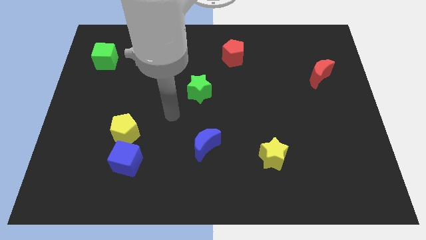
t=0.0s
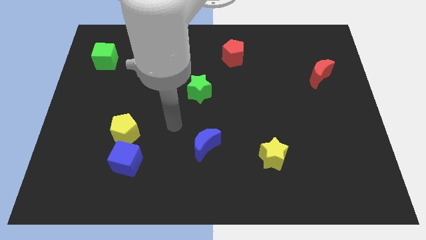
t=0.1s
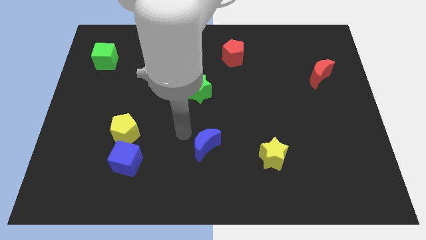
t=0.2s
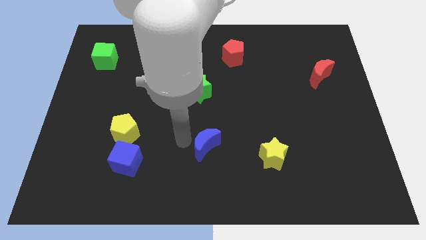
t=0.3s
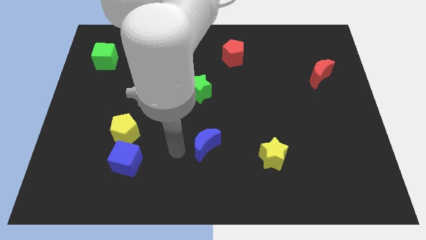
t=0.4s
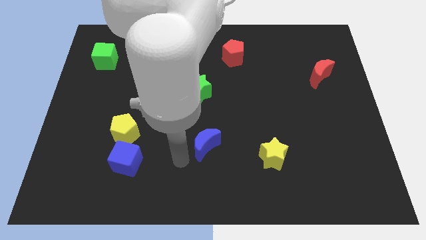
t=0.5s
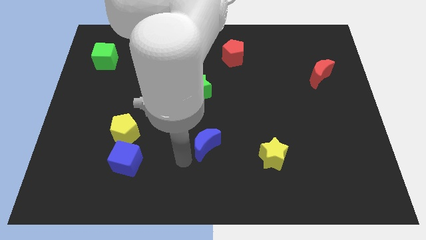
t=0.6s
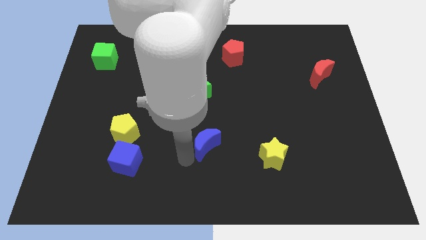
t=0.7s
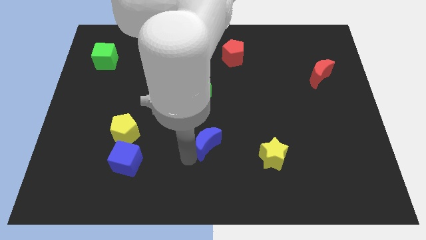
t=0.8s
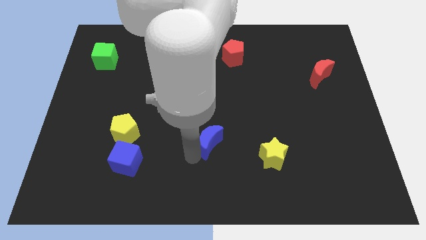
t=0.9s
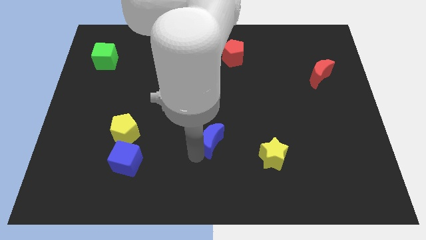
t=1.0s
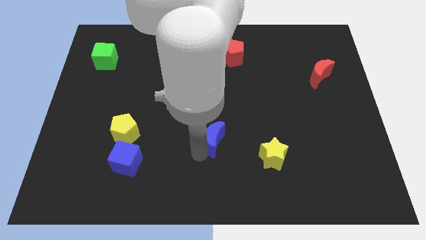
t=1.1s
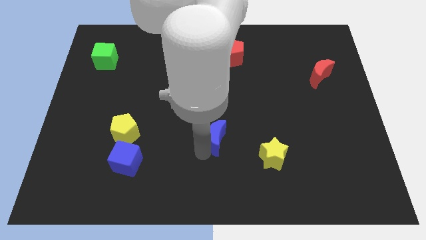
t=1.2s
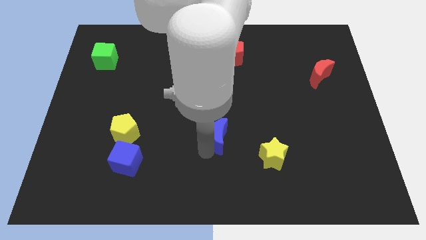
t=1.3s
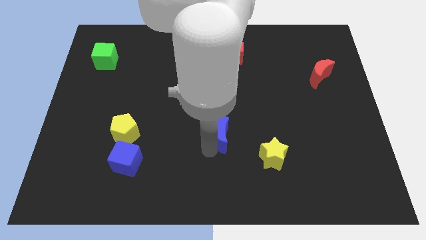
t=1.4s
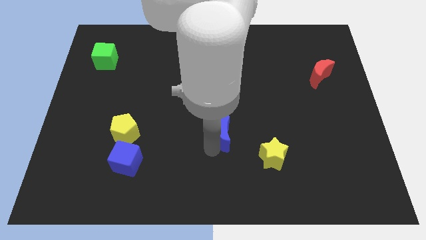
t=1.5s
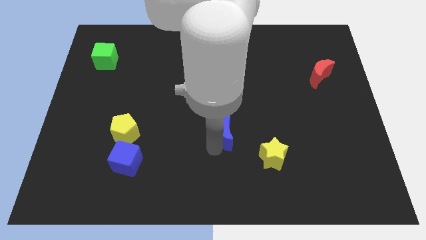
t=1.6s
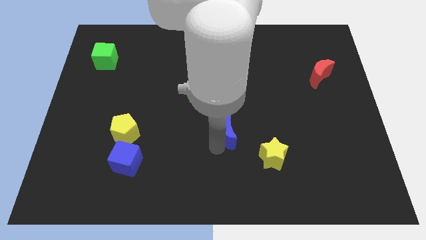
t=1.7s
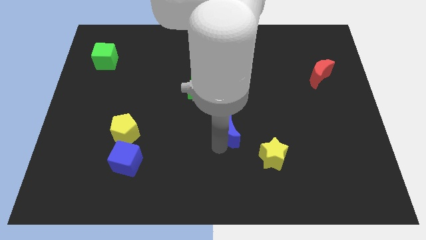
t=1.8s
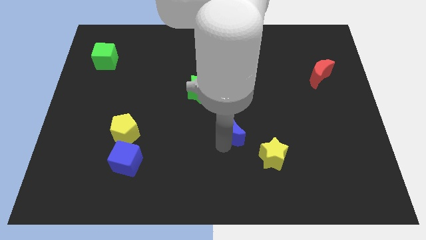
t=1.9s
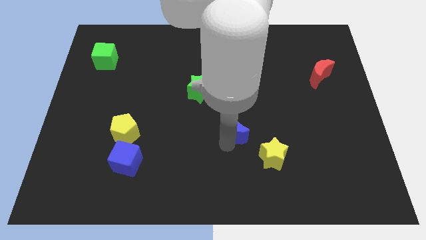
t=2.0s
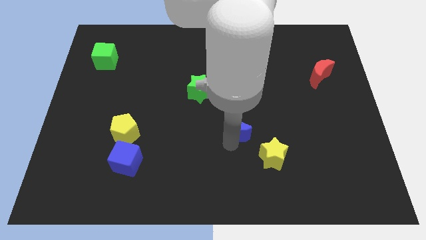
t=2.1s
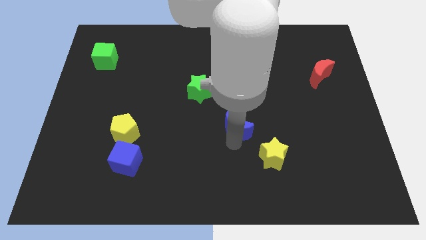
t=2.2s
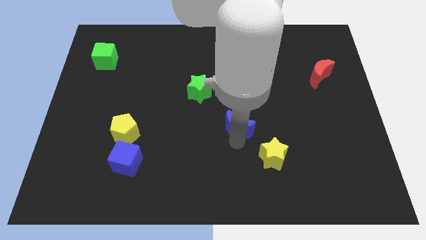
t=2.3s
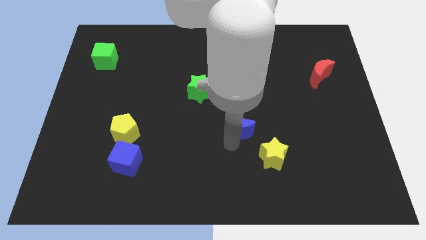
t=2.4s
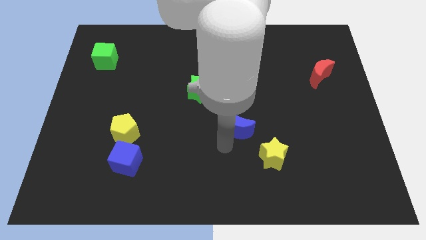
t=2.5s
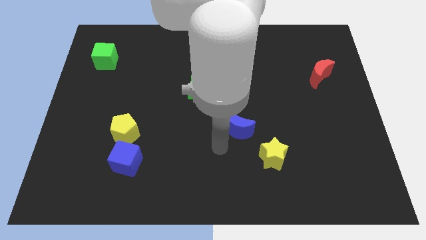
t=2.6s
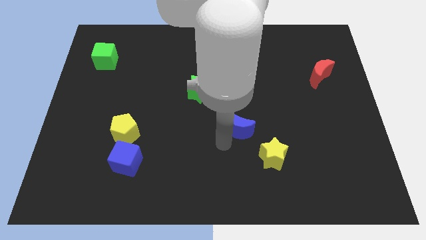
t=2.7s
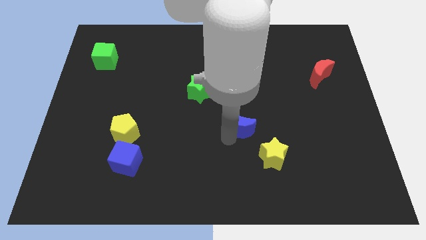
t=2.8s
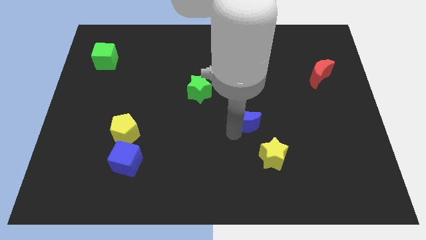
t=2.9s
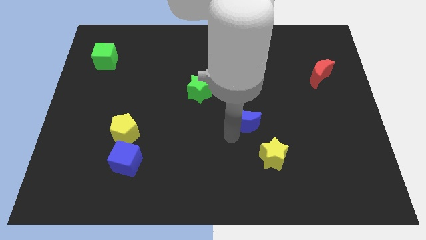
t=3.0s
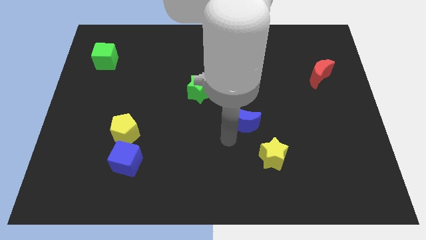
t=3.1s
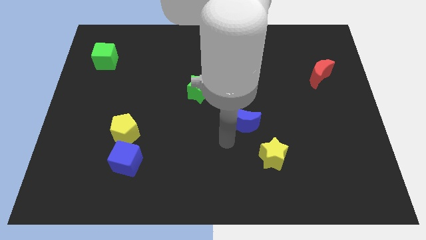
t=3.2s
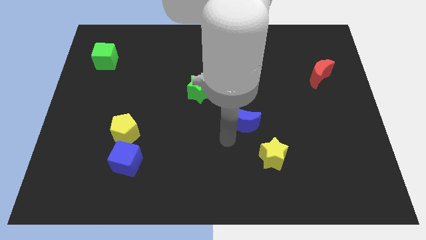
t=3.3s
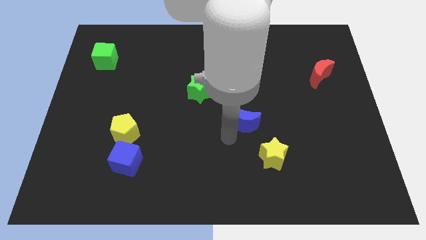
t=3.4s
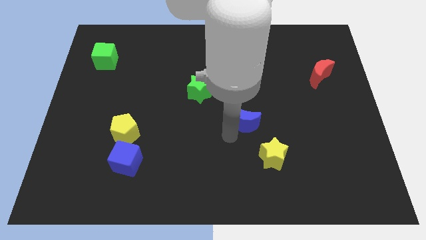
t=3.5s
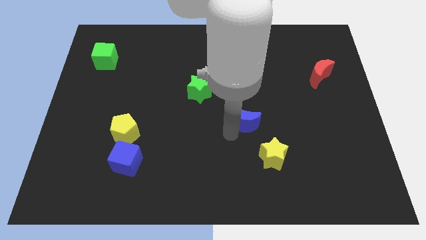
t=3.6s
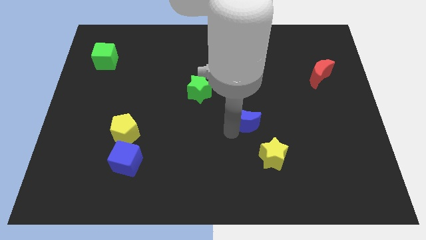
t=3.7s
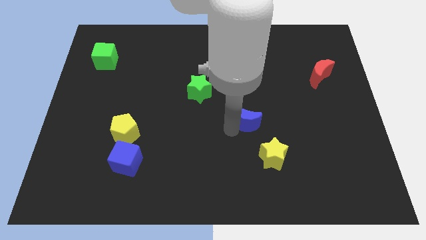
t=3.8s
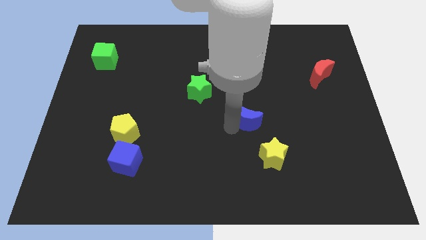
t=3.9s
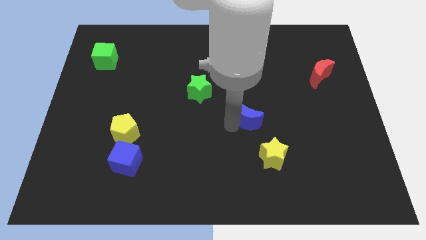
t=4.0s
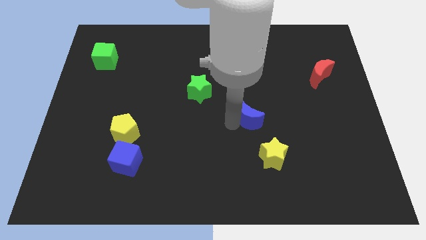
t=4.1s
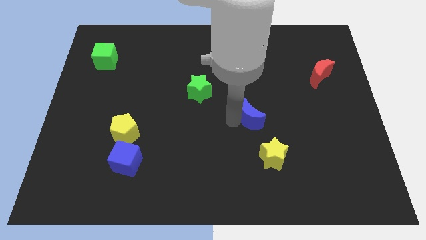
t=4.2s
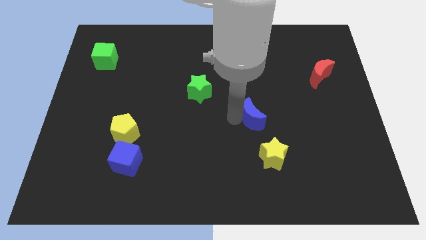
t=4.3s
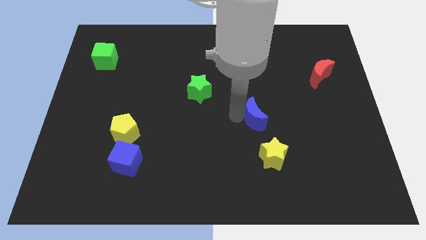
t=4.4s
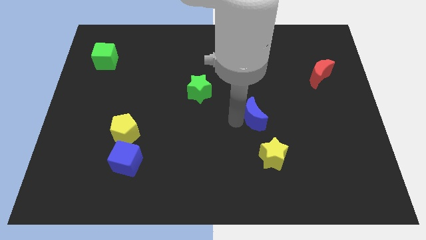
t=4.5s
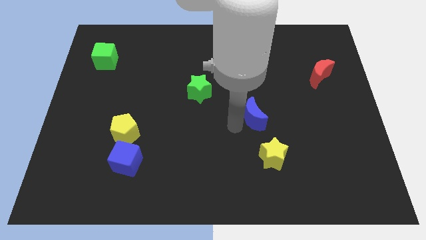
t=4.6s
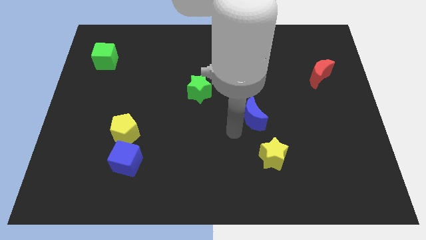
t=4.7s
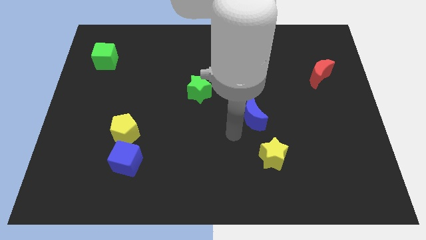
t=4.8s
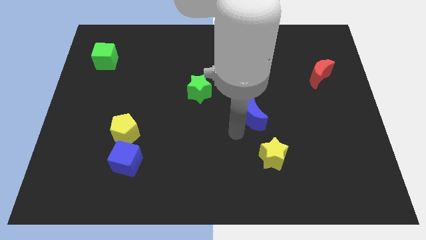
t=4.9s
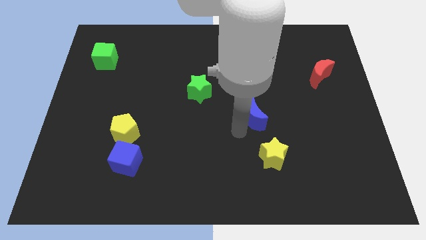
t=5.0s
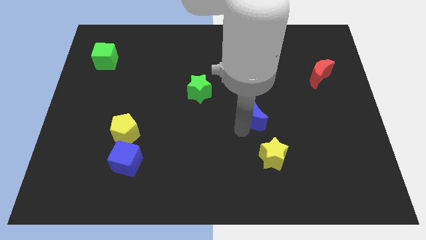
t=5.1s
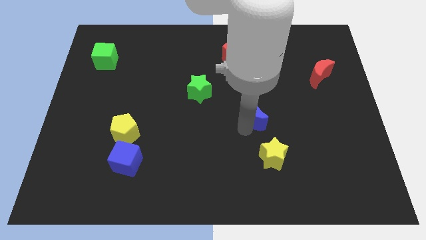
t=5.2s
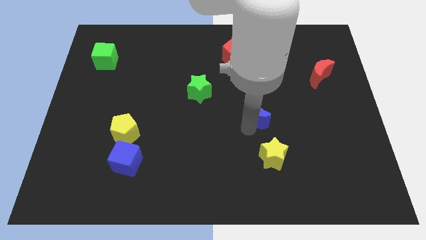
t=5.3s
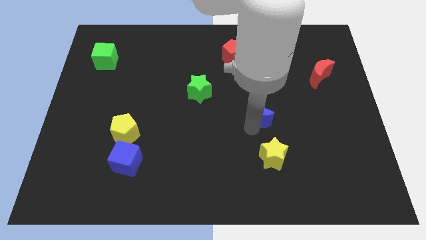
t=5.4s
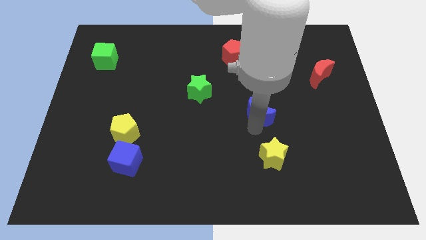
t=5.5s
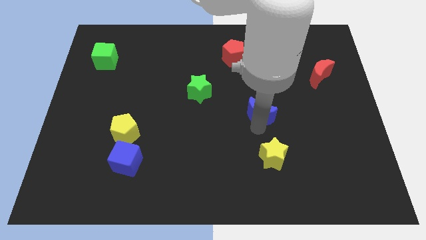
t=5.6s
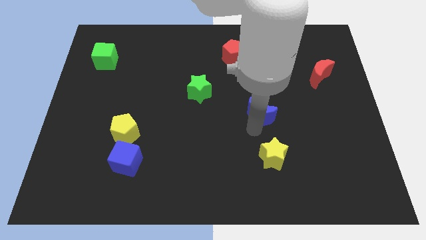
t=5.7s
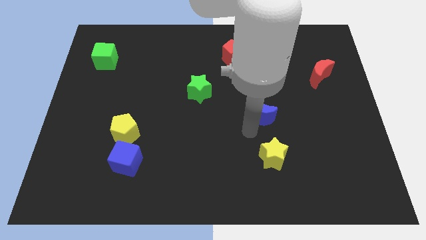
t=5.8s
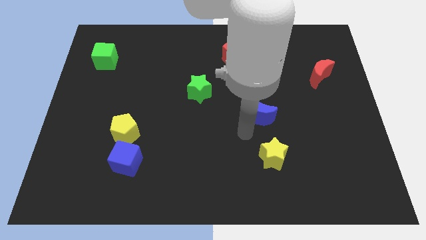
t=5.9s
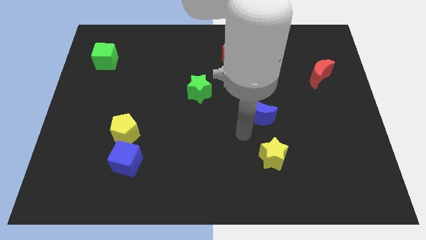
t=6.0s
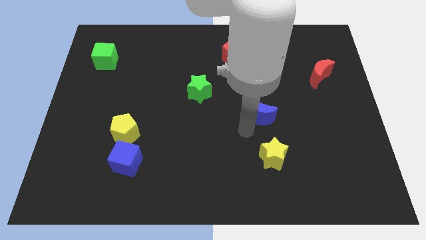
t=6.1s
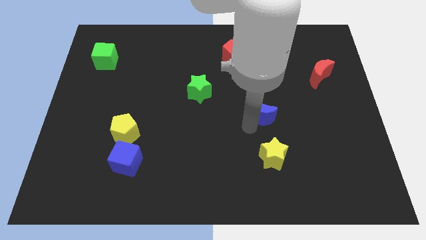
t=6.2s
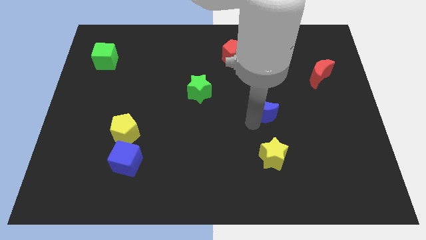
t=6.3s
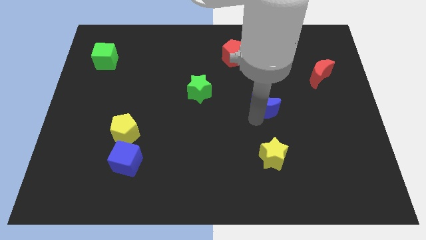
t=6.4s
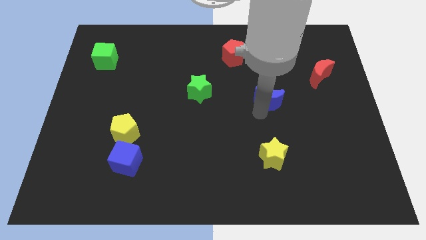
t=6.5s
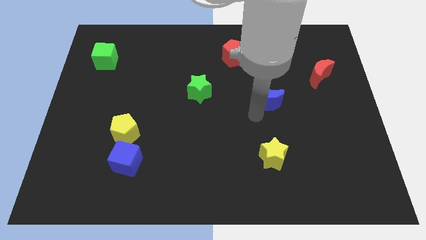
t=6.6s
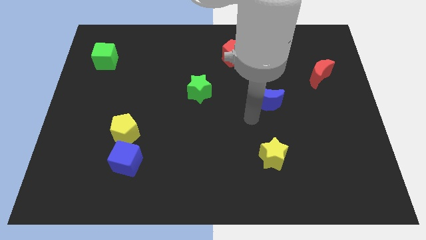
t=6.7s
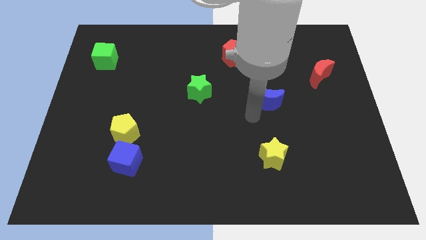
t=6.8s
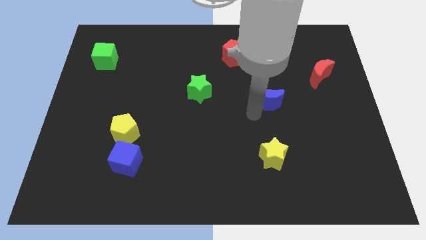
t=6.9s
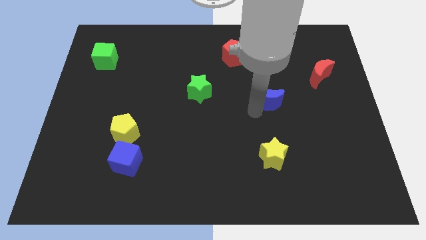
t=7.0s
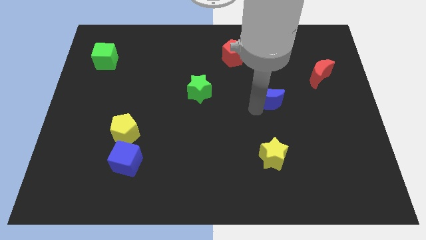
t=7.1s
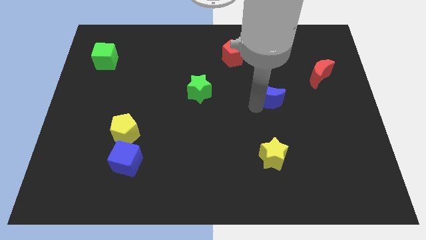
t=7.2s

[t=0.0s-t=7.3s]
slide the blue moon diagonally upwards and right

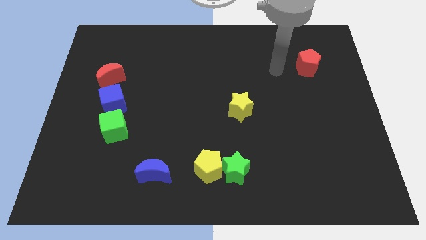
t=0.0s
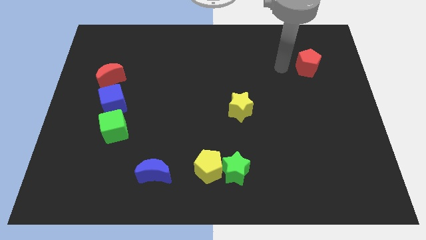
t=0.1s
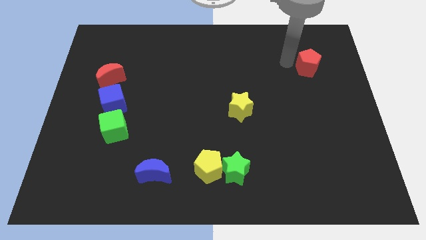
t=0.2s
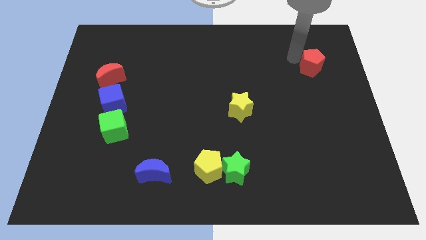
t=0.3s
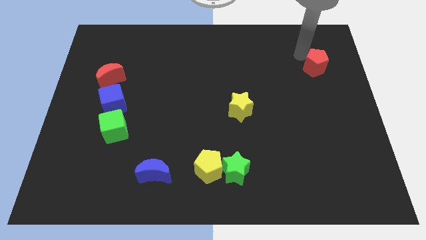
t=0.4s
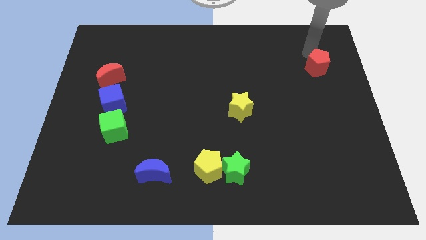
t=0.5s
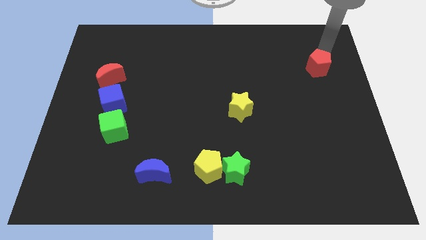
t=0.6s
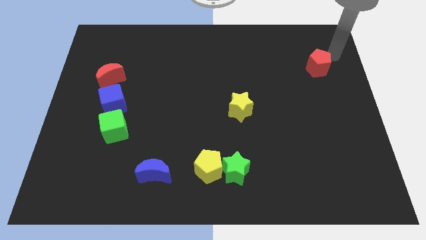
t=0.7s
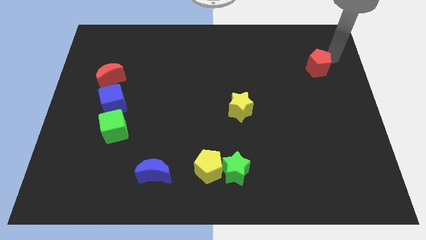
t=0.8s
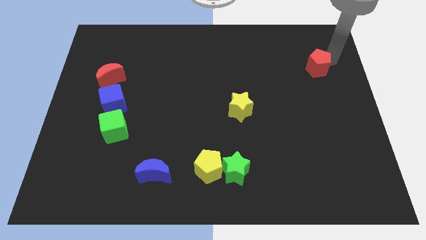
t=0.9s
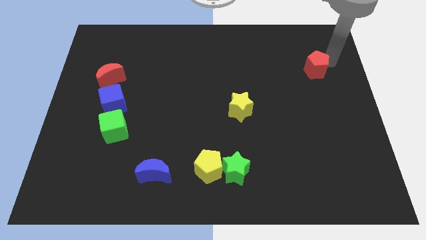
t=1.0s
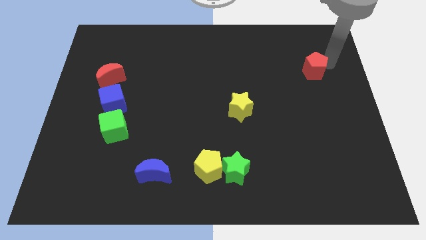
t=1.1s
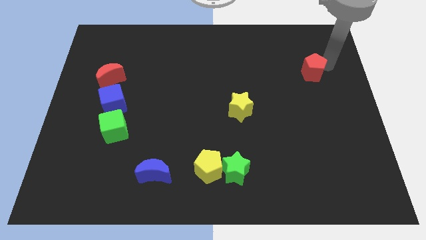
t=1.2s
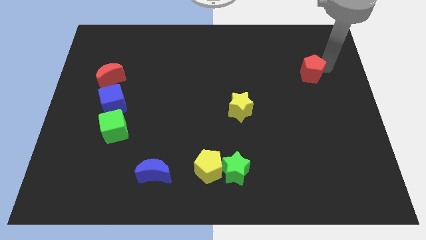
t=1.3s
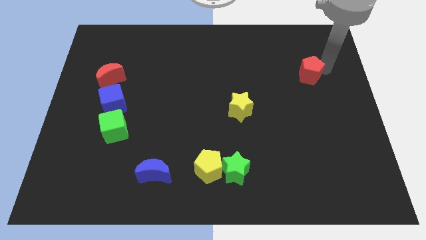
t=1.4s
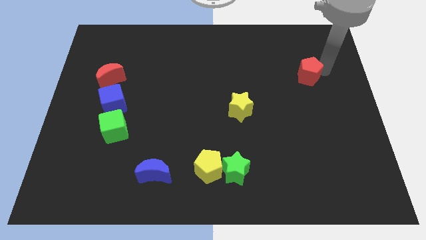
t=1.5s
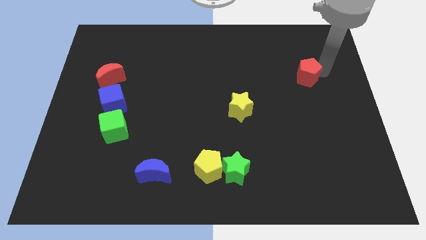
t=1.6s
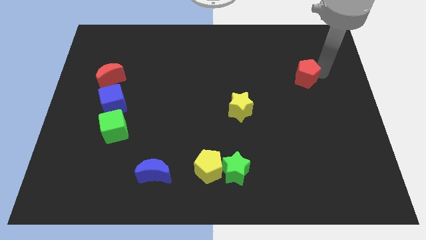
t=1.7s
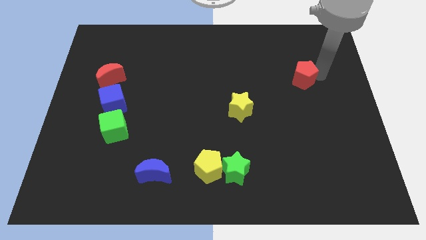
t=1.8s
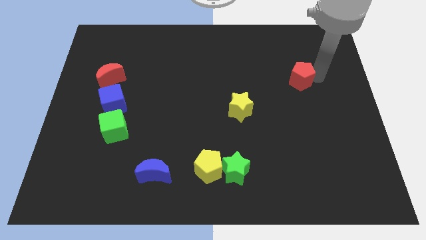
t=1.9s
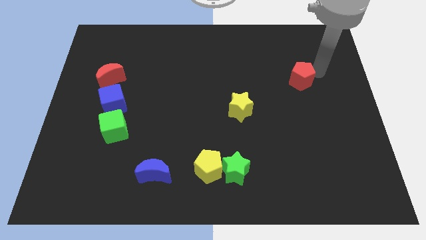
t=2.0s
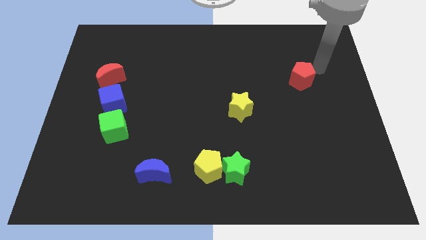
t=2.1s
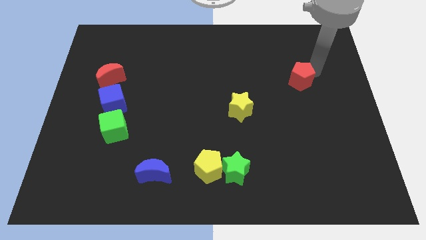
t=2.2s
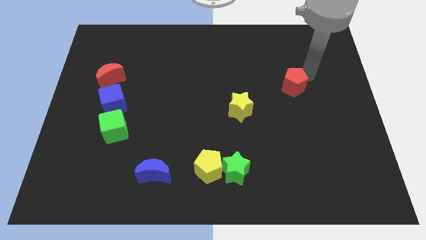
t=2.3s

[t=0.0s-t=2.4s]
slightly push the red pentagon down and then left
